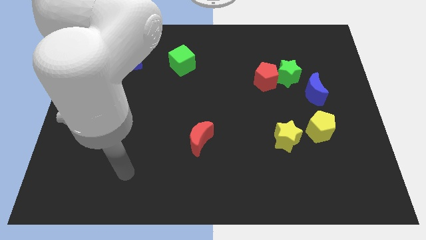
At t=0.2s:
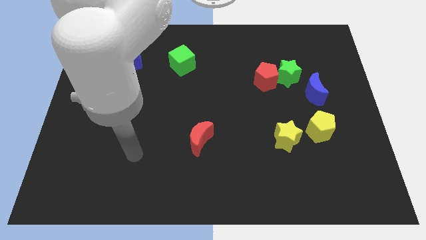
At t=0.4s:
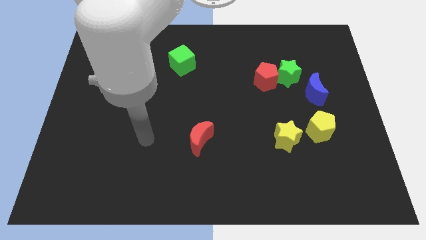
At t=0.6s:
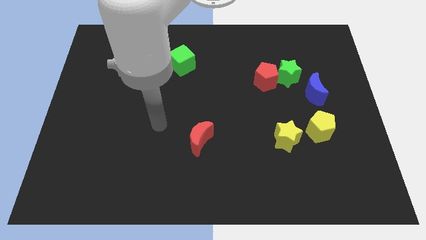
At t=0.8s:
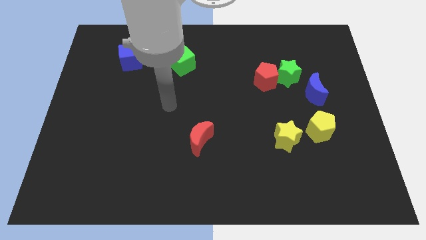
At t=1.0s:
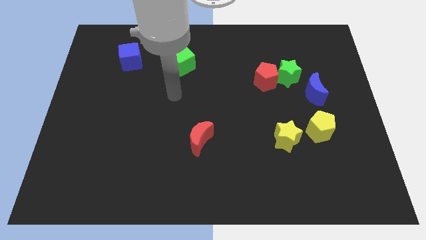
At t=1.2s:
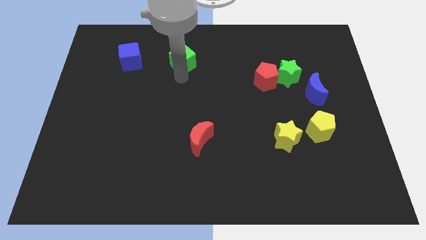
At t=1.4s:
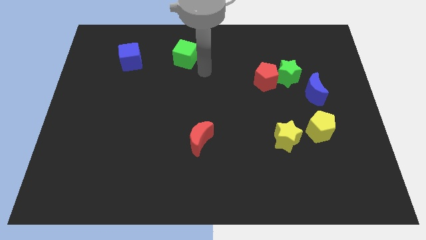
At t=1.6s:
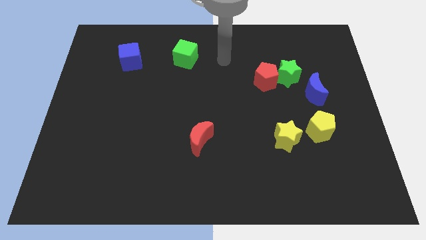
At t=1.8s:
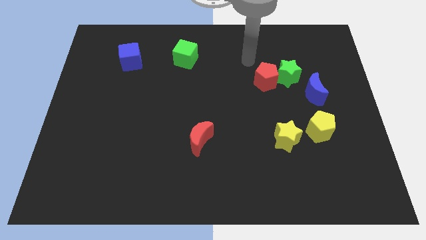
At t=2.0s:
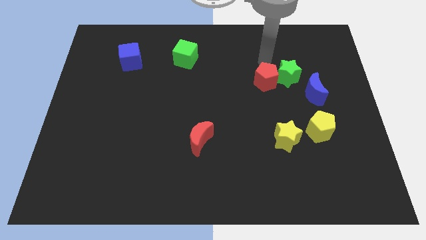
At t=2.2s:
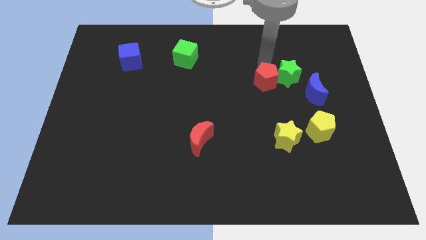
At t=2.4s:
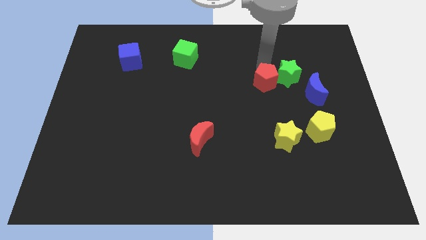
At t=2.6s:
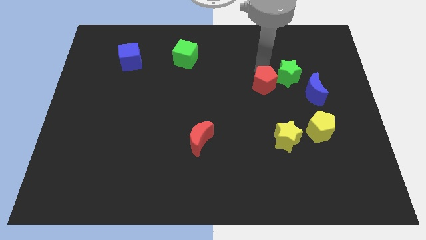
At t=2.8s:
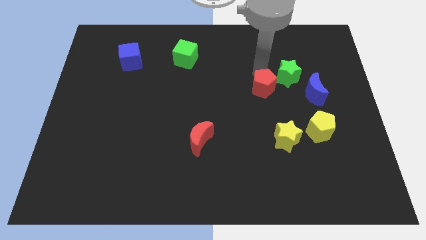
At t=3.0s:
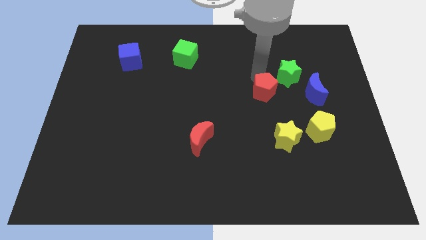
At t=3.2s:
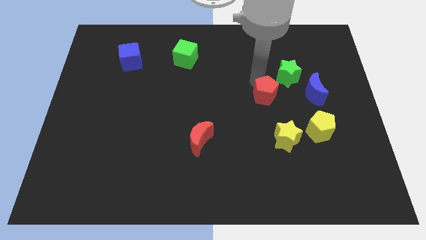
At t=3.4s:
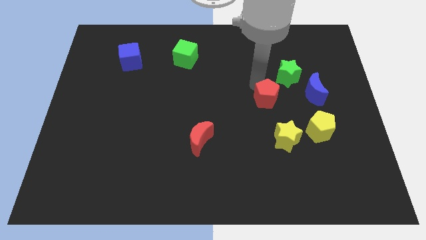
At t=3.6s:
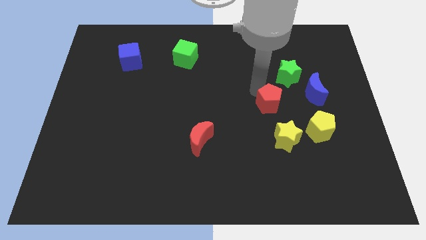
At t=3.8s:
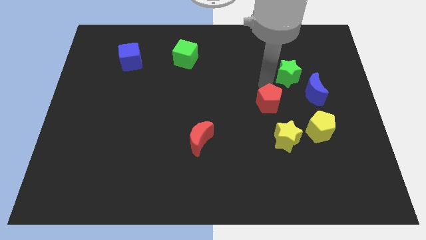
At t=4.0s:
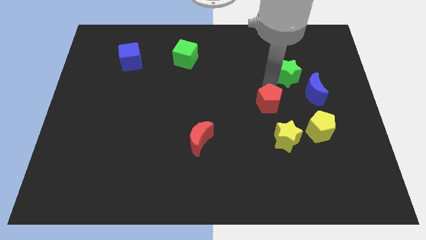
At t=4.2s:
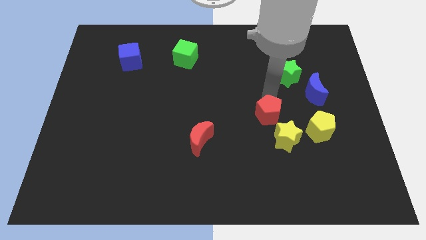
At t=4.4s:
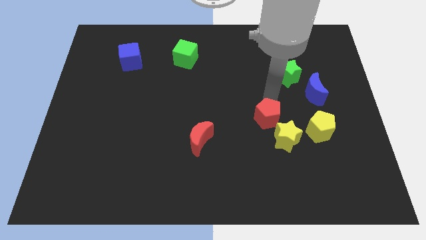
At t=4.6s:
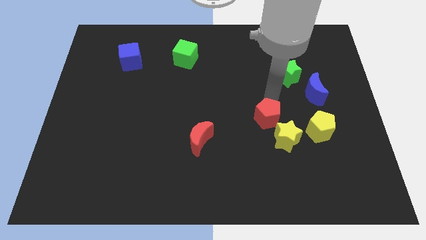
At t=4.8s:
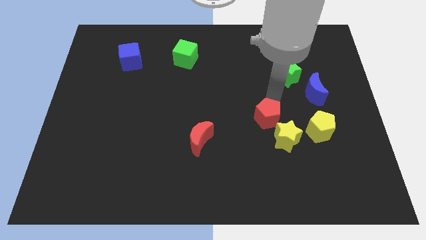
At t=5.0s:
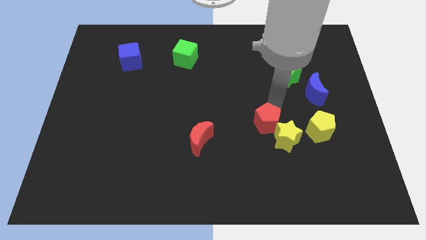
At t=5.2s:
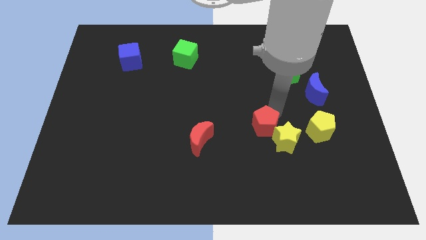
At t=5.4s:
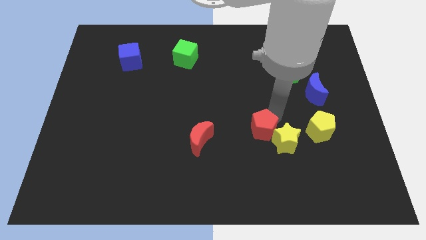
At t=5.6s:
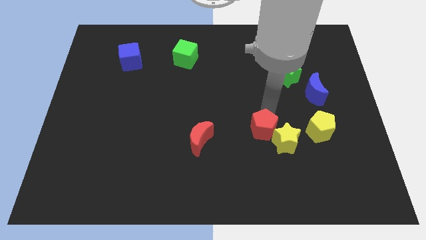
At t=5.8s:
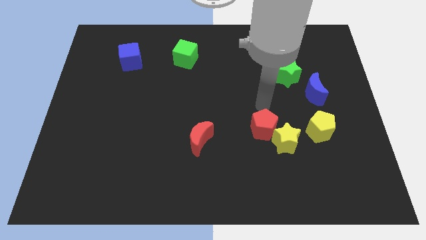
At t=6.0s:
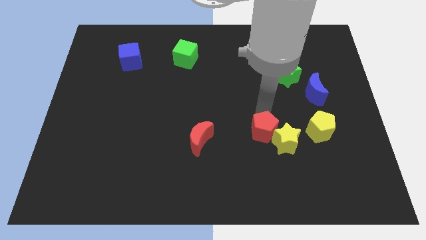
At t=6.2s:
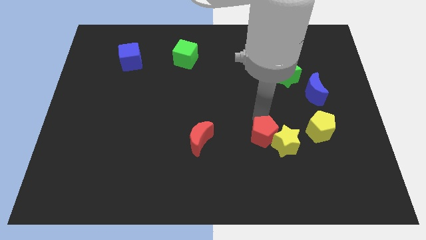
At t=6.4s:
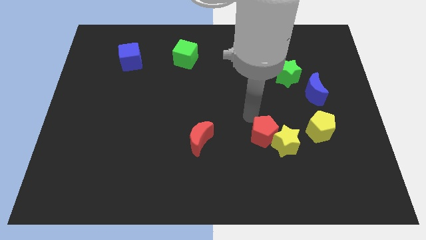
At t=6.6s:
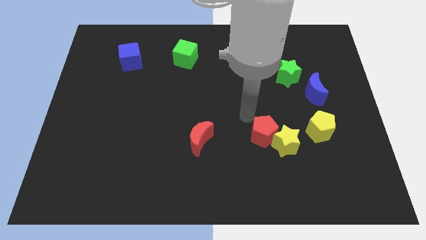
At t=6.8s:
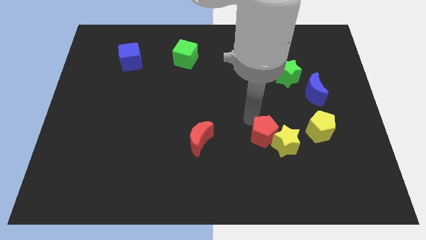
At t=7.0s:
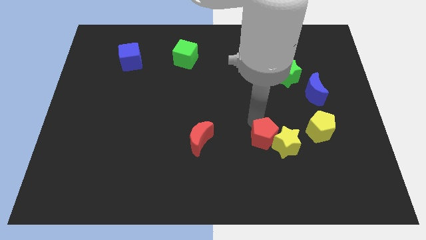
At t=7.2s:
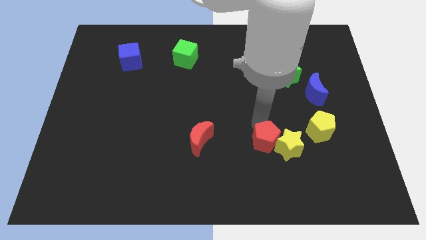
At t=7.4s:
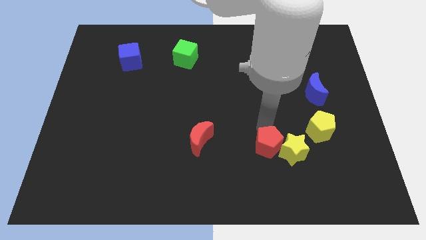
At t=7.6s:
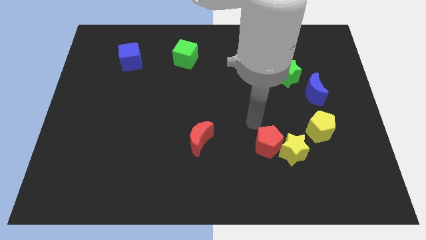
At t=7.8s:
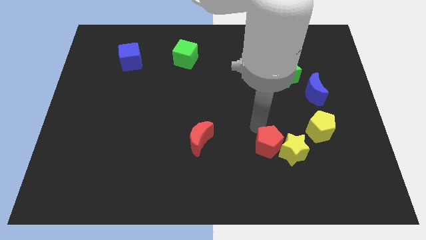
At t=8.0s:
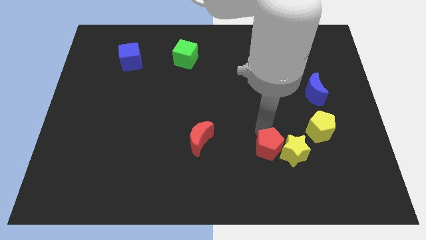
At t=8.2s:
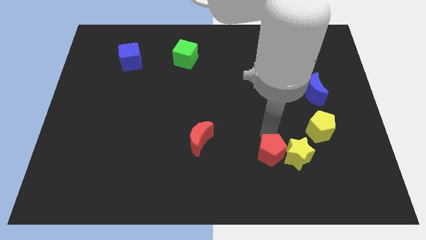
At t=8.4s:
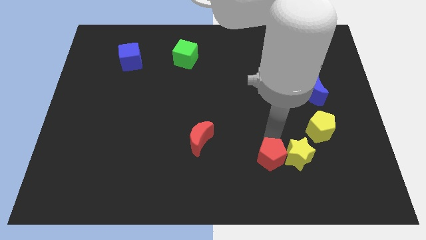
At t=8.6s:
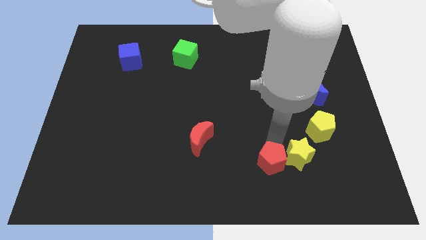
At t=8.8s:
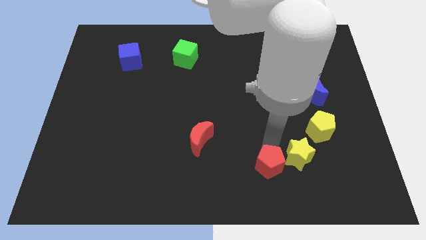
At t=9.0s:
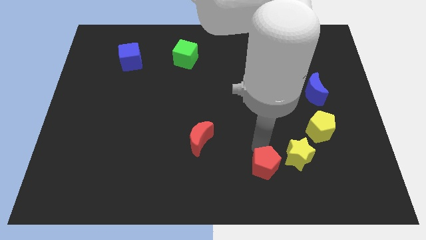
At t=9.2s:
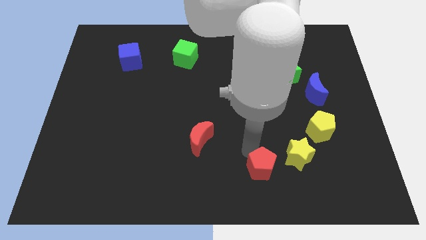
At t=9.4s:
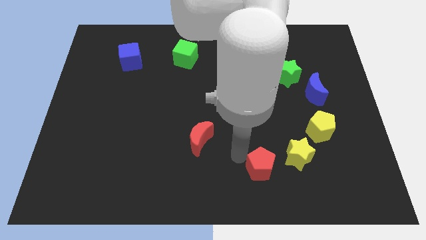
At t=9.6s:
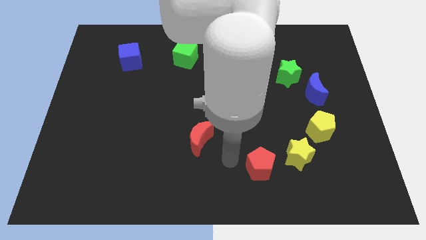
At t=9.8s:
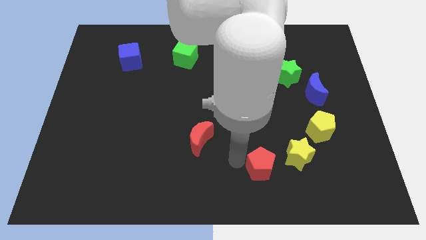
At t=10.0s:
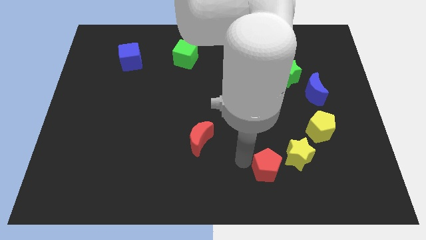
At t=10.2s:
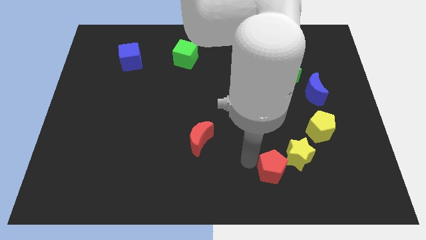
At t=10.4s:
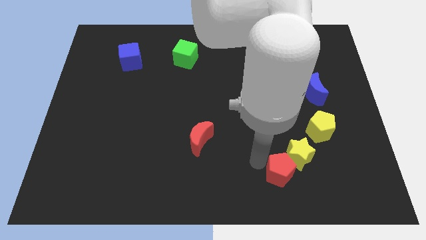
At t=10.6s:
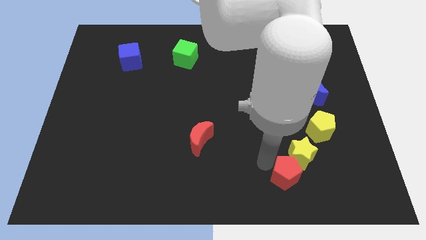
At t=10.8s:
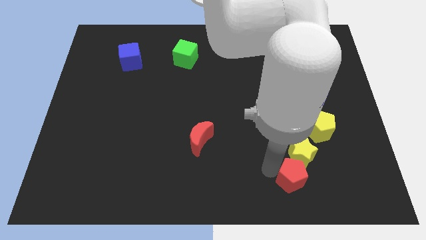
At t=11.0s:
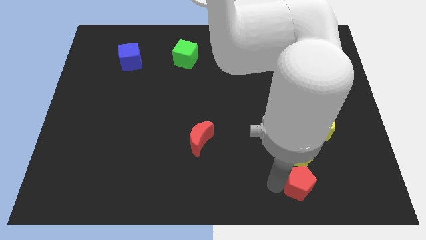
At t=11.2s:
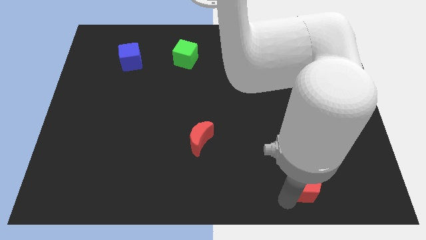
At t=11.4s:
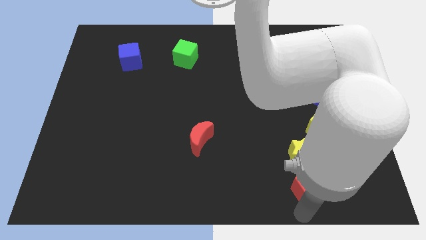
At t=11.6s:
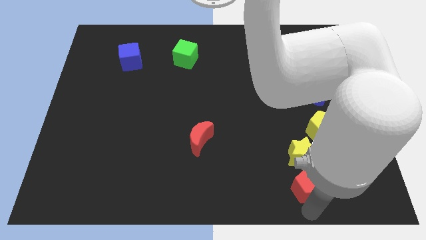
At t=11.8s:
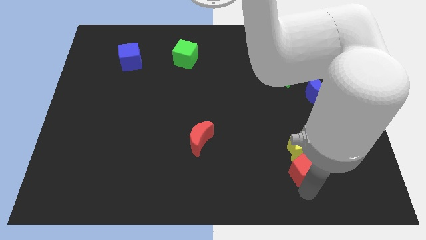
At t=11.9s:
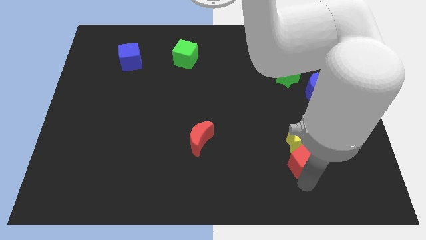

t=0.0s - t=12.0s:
move the red pentagon to the bottom left of the yellow pentagon

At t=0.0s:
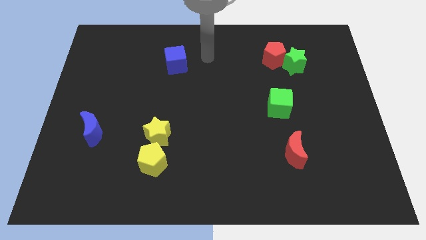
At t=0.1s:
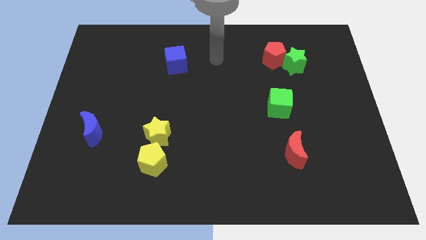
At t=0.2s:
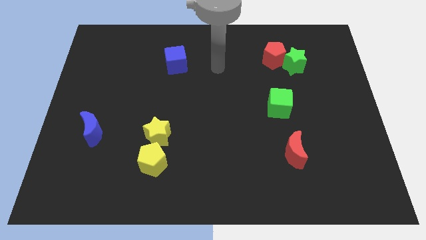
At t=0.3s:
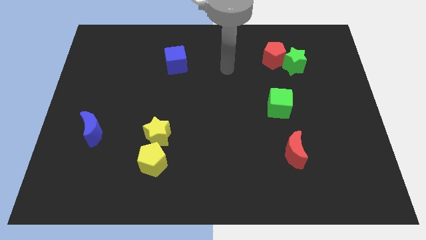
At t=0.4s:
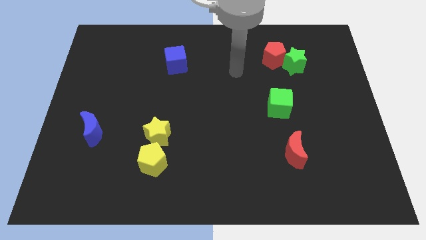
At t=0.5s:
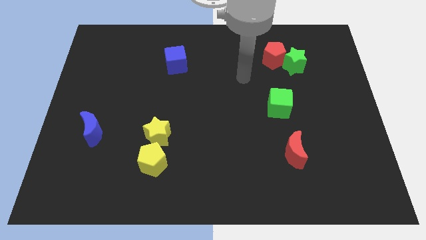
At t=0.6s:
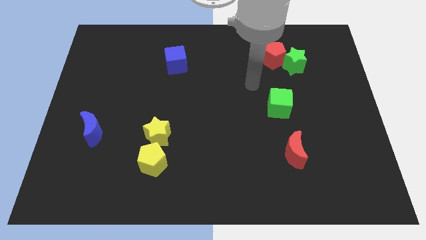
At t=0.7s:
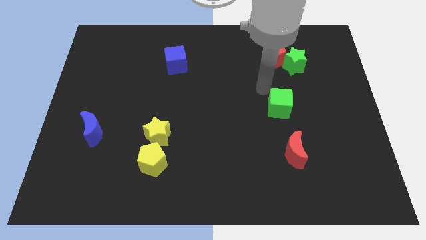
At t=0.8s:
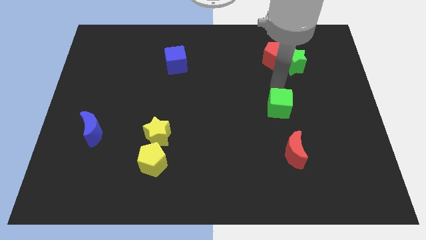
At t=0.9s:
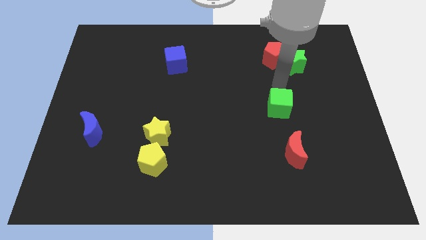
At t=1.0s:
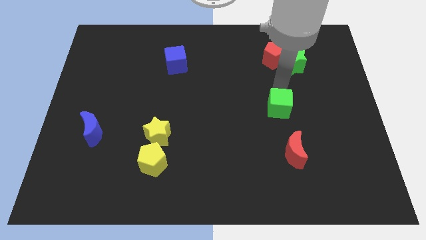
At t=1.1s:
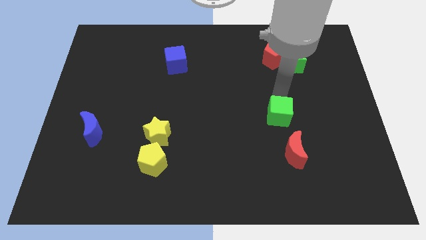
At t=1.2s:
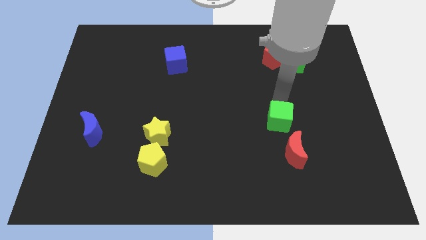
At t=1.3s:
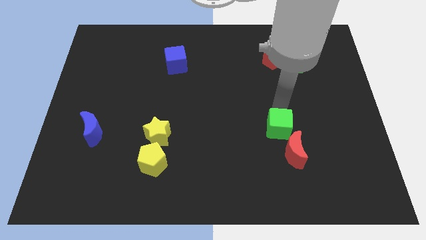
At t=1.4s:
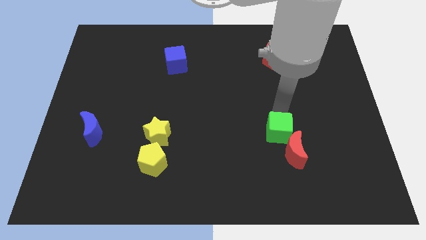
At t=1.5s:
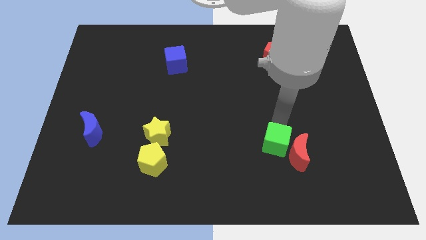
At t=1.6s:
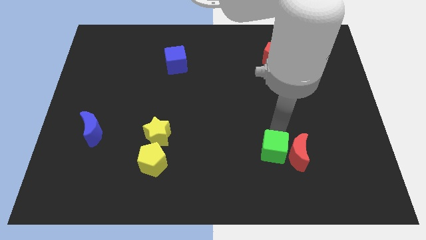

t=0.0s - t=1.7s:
slide the green cube to the bottom left of the red moon
